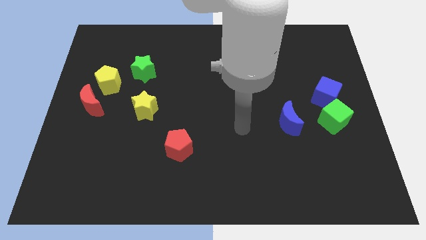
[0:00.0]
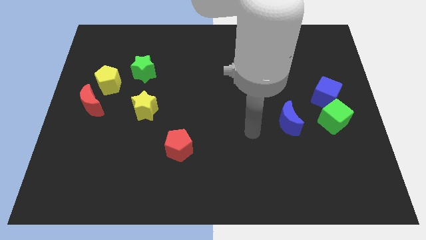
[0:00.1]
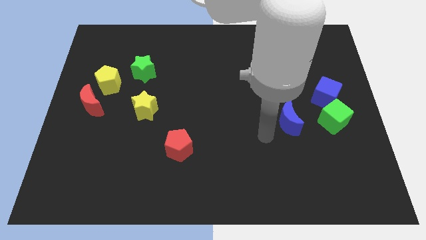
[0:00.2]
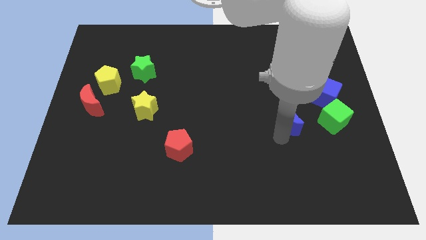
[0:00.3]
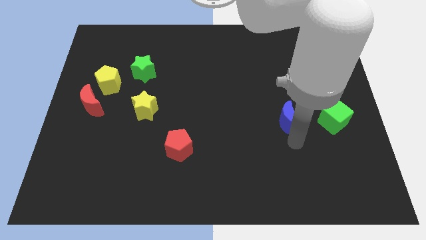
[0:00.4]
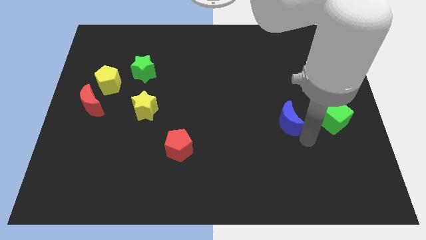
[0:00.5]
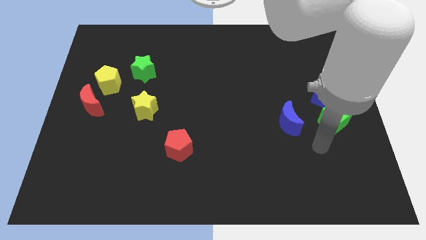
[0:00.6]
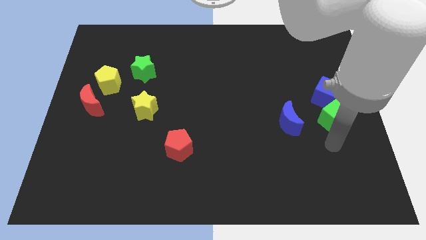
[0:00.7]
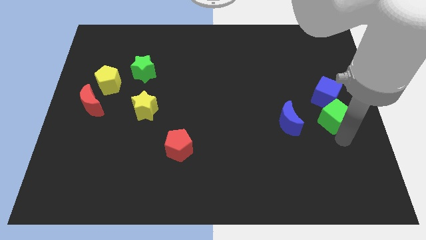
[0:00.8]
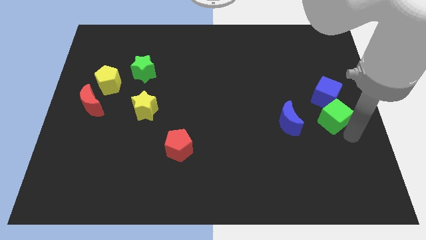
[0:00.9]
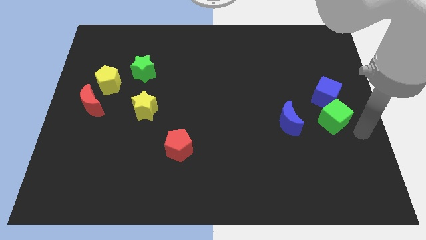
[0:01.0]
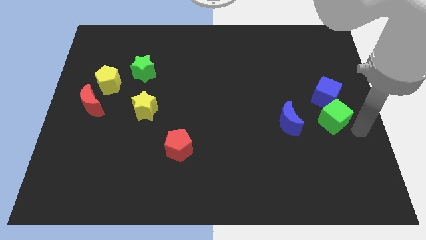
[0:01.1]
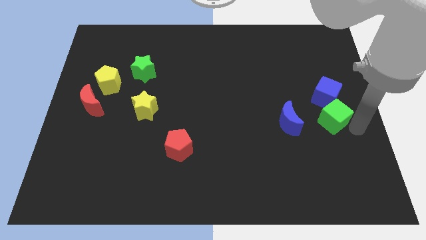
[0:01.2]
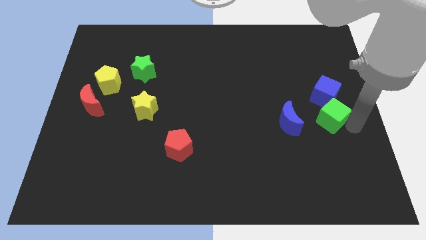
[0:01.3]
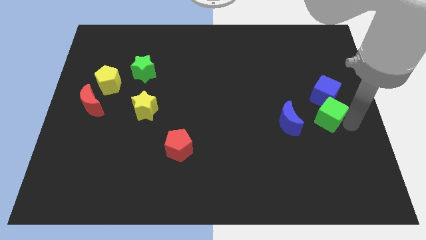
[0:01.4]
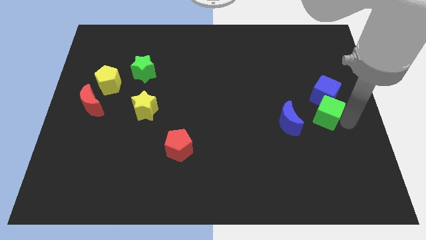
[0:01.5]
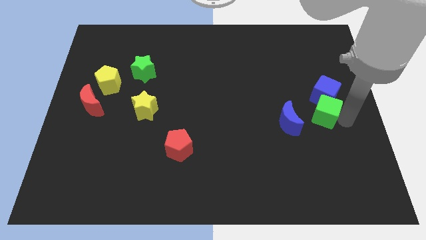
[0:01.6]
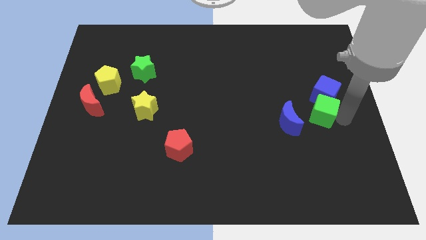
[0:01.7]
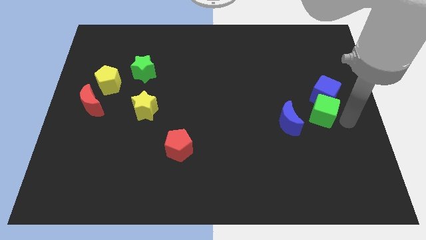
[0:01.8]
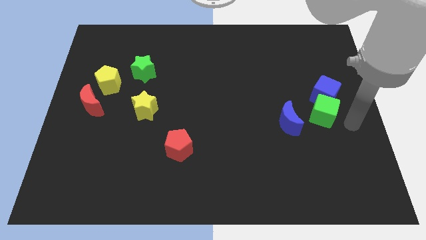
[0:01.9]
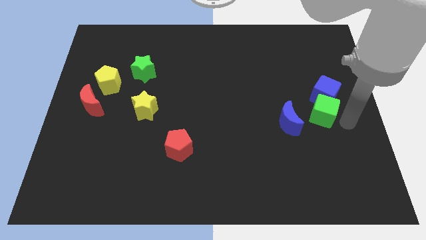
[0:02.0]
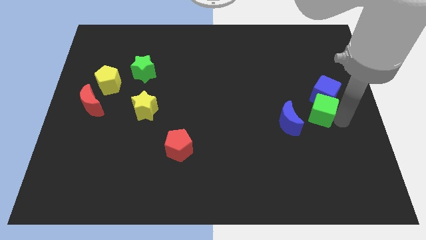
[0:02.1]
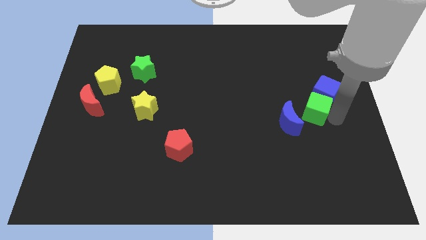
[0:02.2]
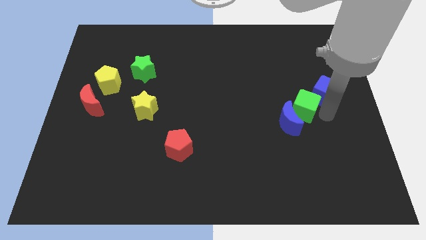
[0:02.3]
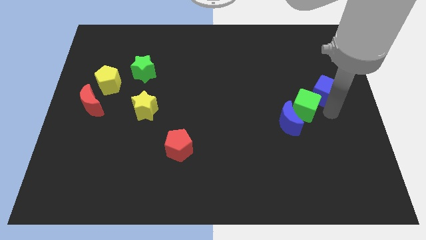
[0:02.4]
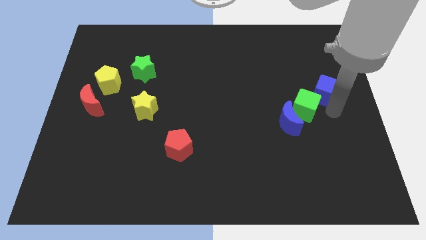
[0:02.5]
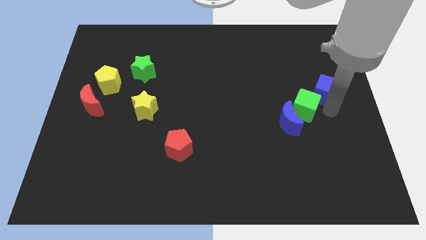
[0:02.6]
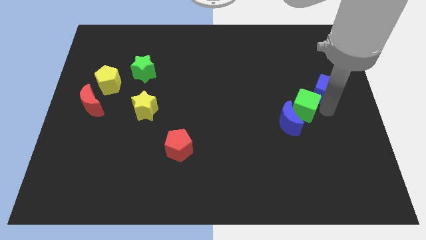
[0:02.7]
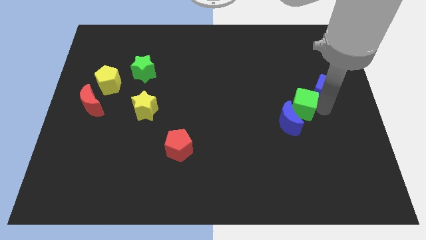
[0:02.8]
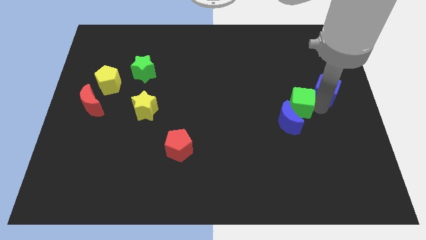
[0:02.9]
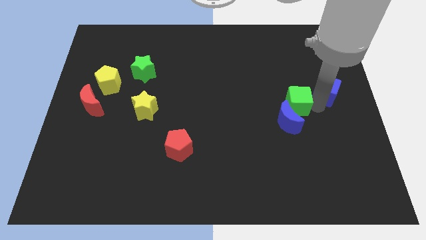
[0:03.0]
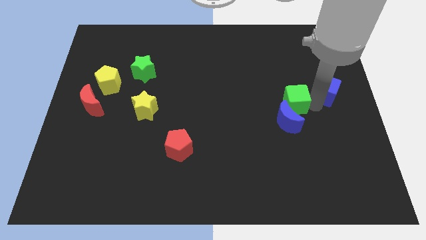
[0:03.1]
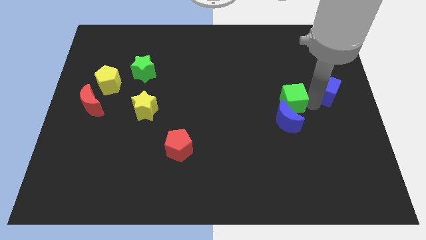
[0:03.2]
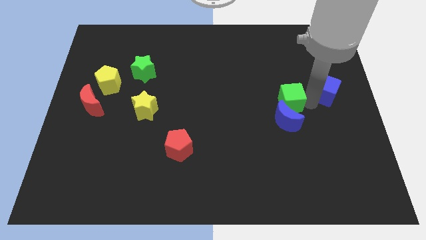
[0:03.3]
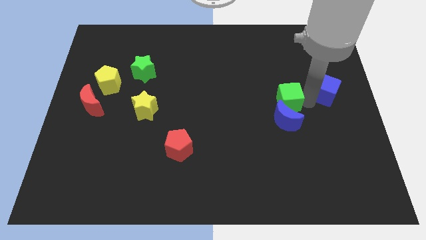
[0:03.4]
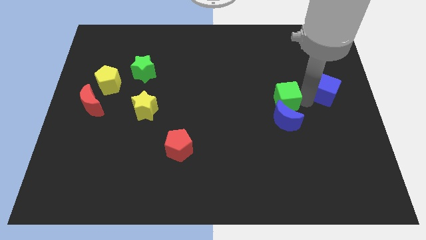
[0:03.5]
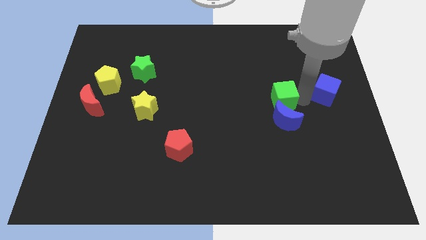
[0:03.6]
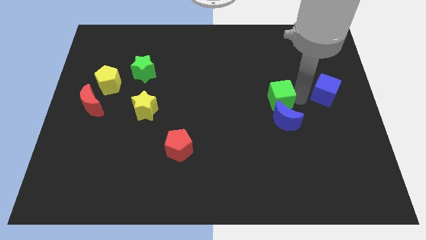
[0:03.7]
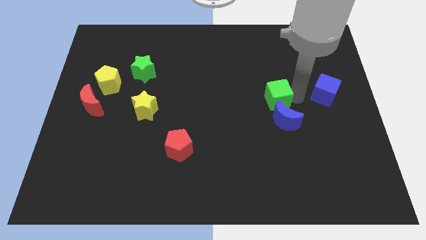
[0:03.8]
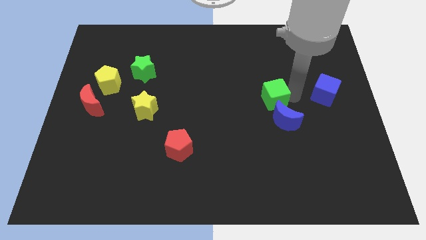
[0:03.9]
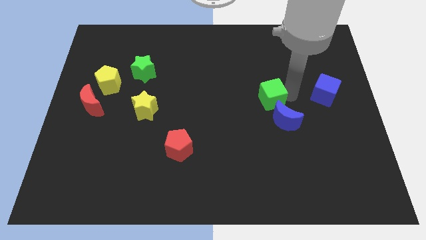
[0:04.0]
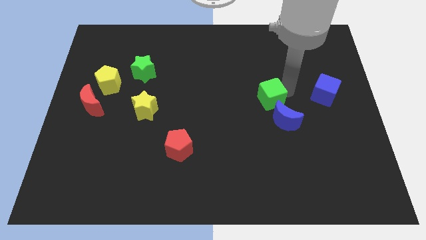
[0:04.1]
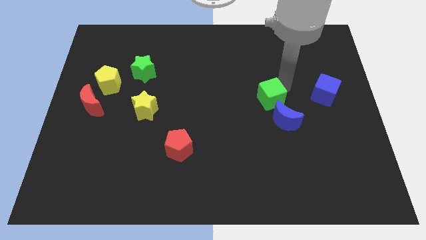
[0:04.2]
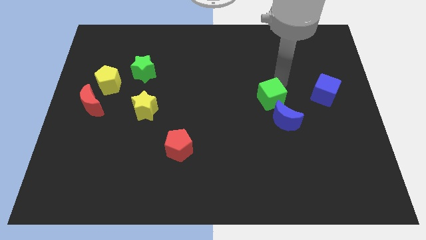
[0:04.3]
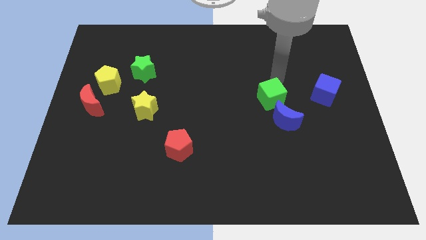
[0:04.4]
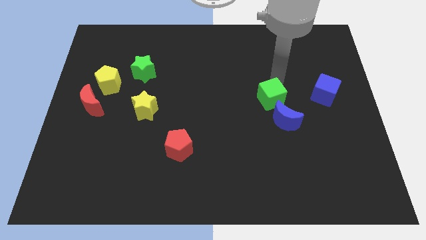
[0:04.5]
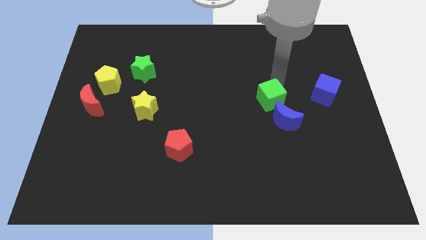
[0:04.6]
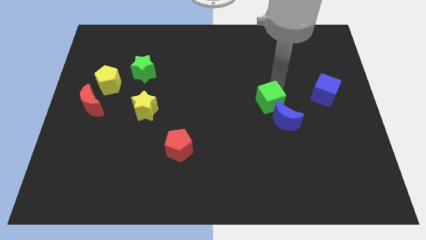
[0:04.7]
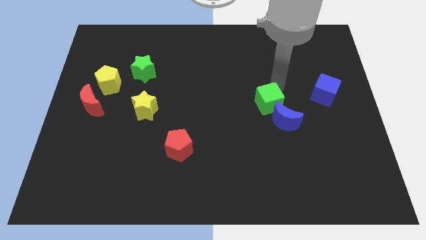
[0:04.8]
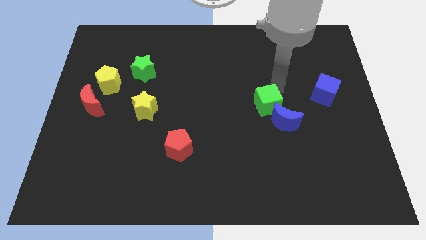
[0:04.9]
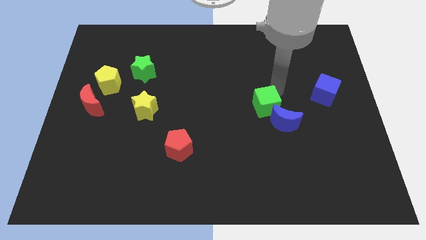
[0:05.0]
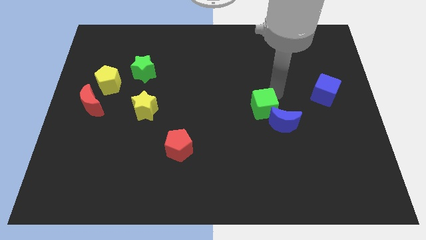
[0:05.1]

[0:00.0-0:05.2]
put the green cube just left of the blue moon

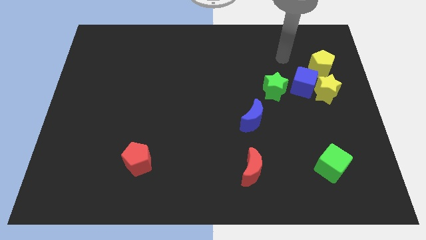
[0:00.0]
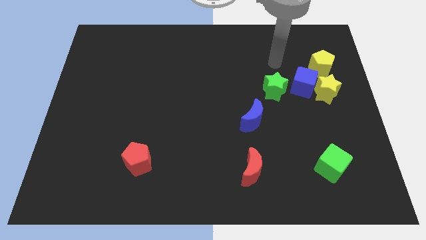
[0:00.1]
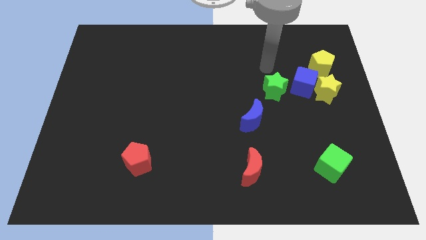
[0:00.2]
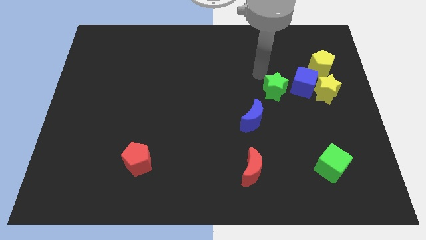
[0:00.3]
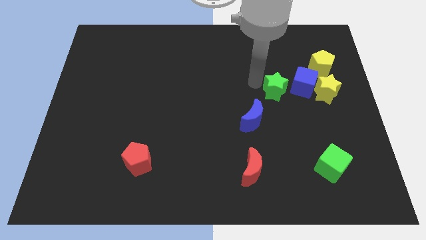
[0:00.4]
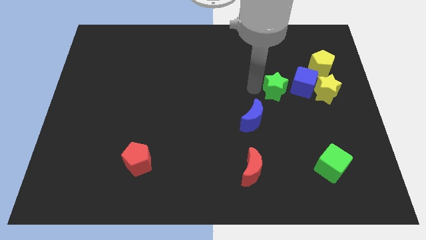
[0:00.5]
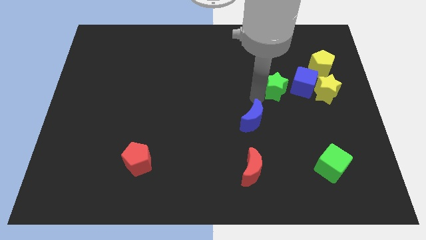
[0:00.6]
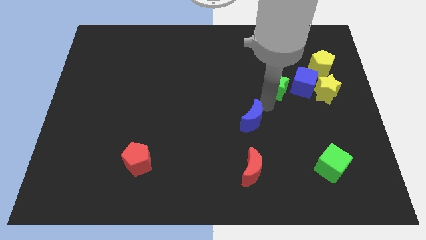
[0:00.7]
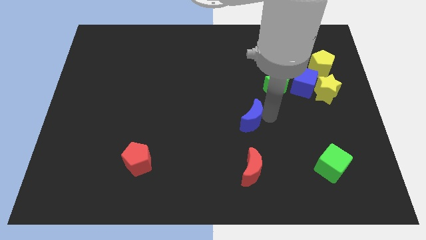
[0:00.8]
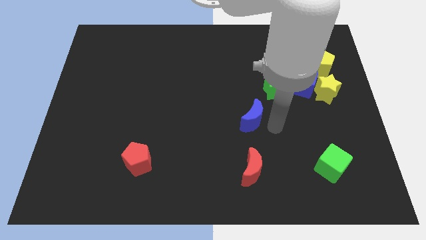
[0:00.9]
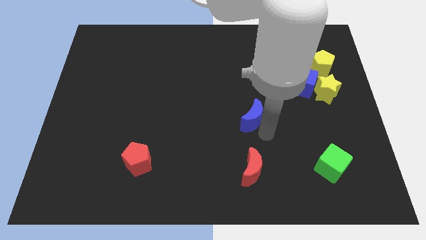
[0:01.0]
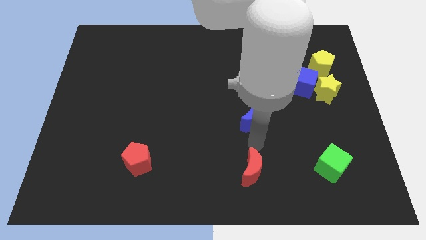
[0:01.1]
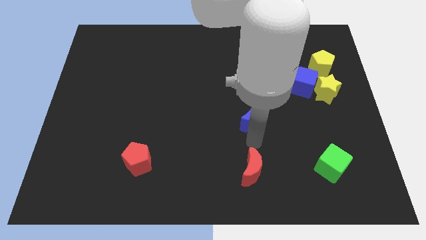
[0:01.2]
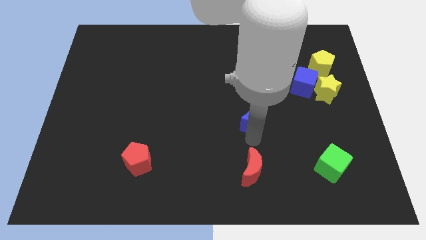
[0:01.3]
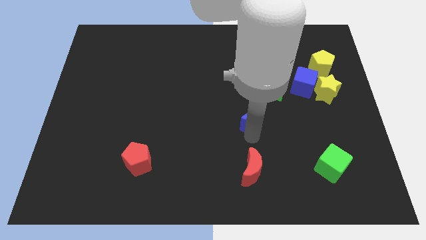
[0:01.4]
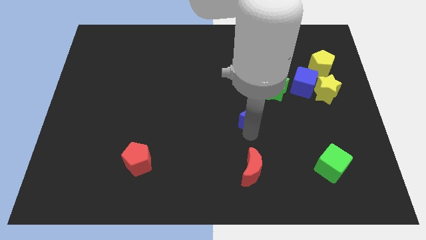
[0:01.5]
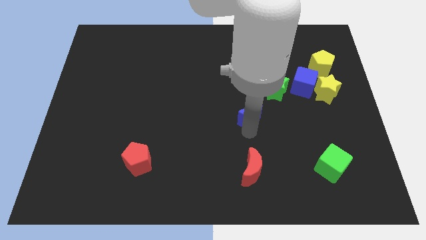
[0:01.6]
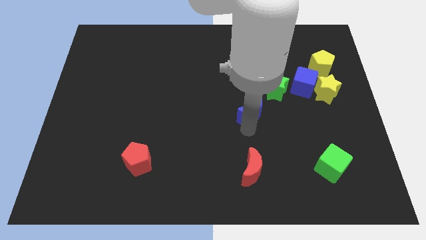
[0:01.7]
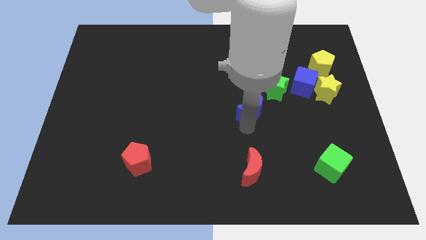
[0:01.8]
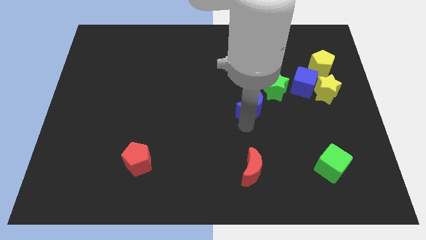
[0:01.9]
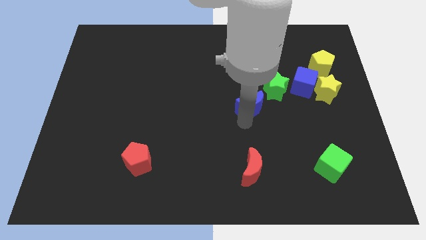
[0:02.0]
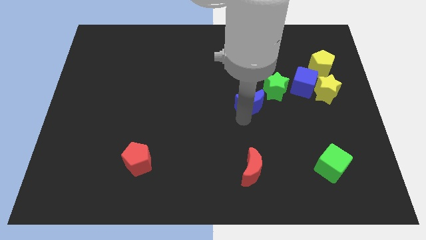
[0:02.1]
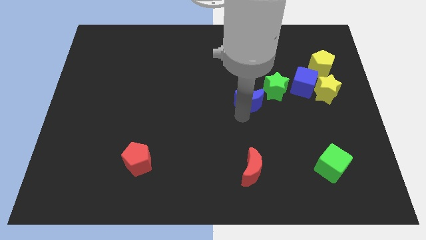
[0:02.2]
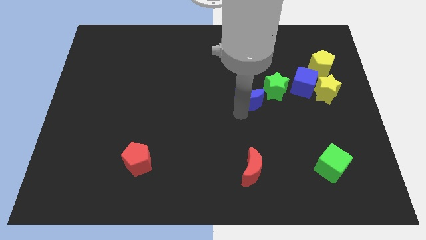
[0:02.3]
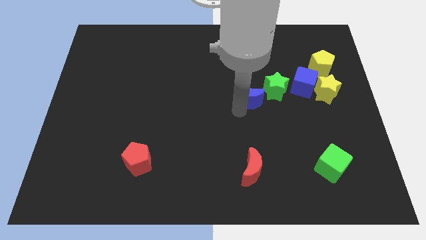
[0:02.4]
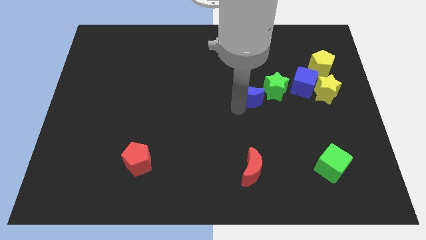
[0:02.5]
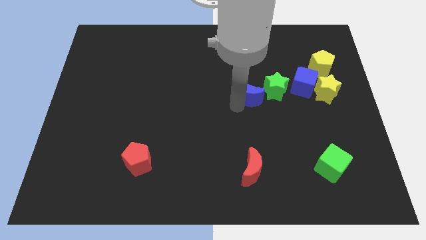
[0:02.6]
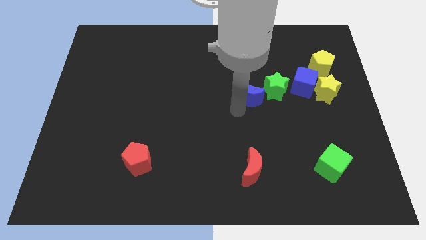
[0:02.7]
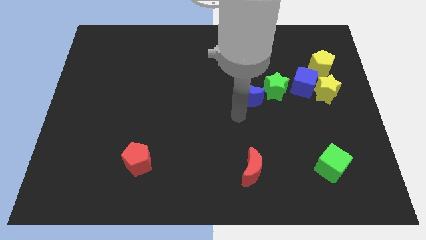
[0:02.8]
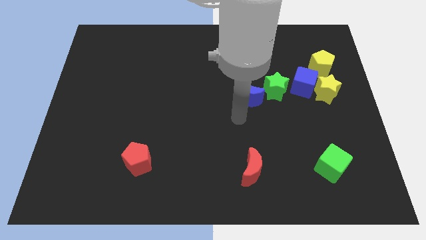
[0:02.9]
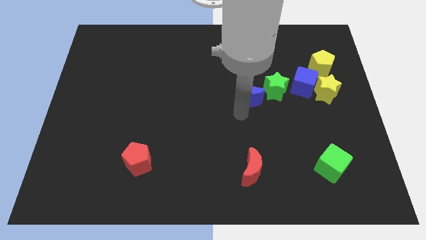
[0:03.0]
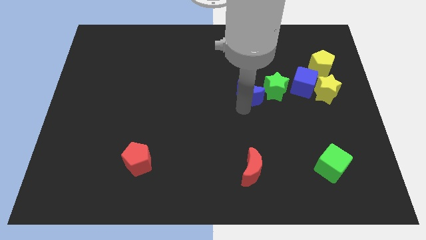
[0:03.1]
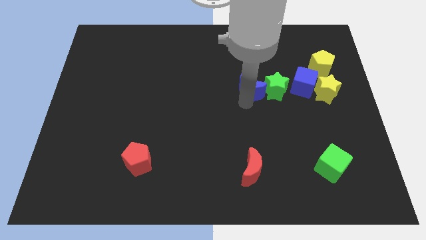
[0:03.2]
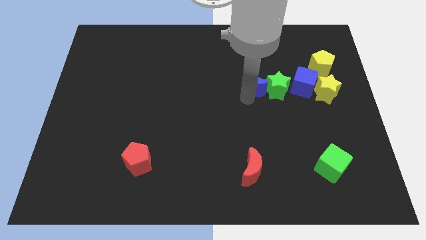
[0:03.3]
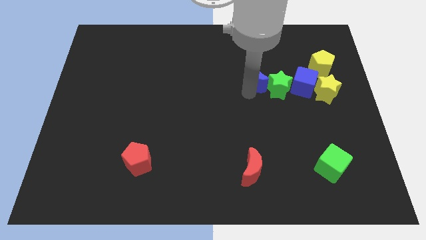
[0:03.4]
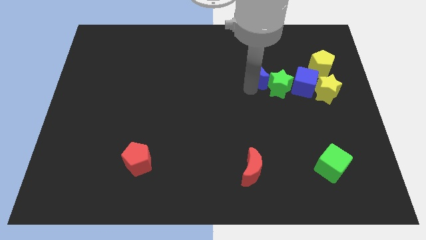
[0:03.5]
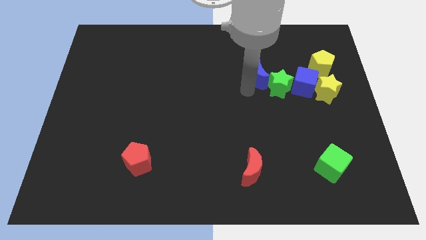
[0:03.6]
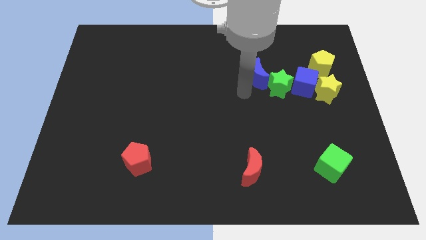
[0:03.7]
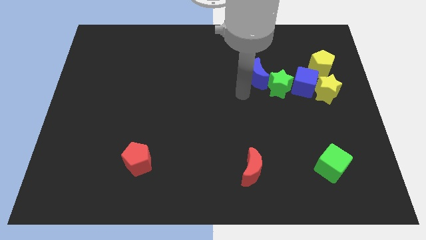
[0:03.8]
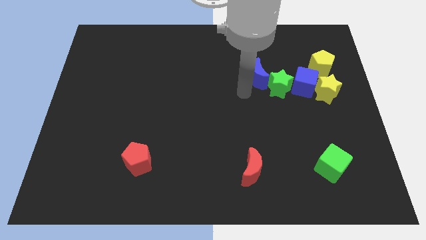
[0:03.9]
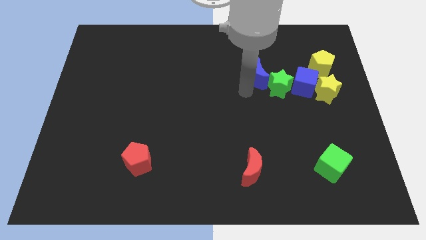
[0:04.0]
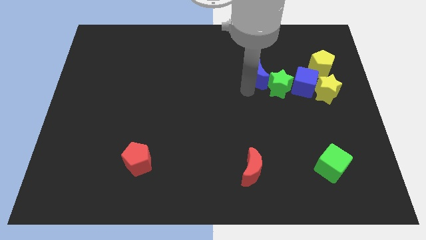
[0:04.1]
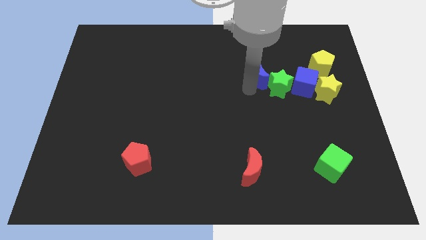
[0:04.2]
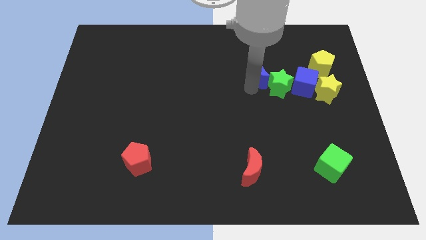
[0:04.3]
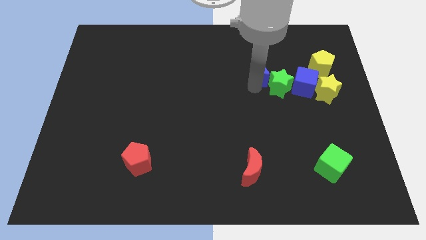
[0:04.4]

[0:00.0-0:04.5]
move the blue moon to the top side of the green star
